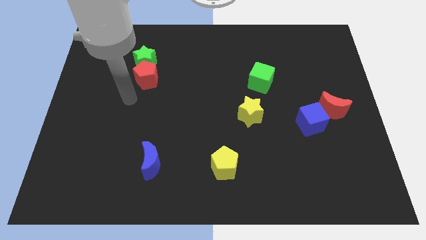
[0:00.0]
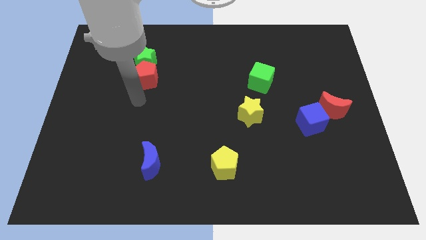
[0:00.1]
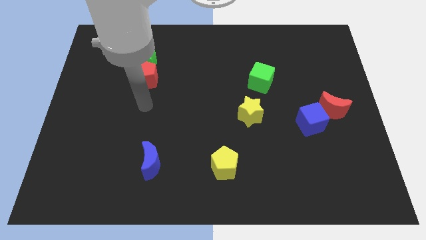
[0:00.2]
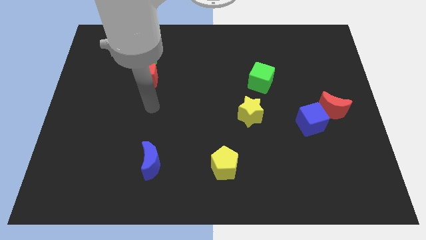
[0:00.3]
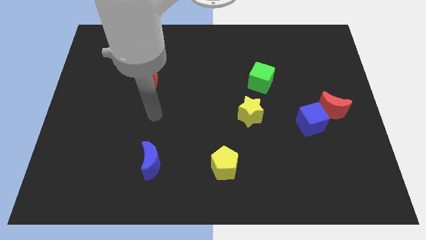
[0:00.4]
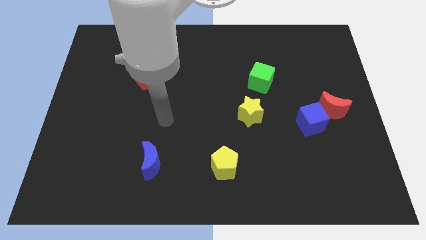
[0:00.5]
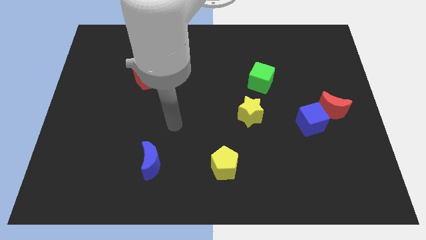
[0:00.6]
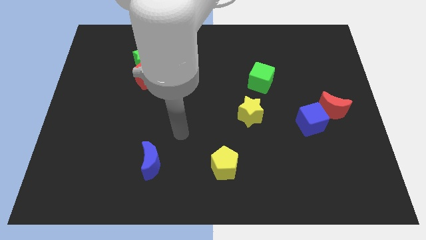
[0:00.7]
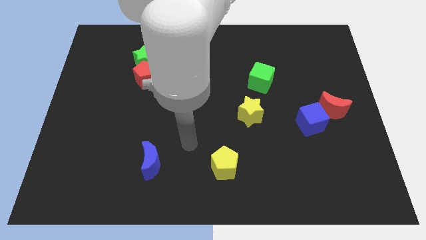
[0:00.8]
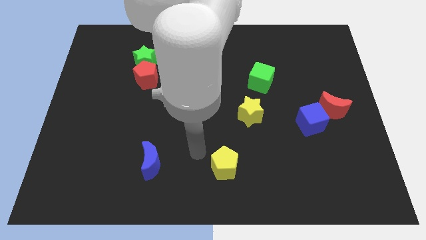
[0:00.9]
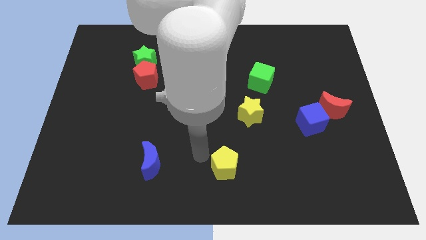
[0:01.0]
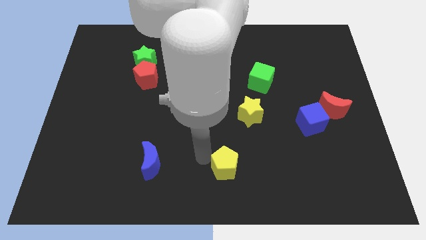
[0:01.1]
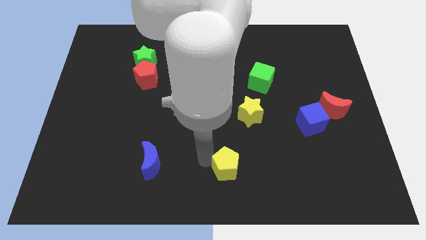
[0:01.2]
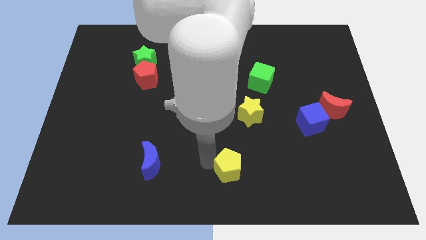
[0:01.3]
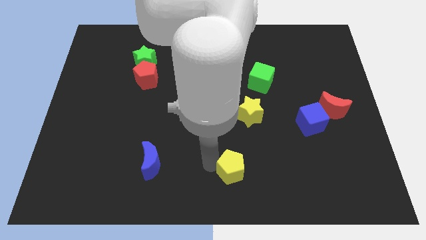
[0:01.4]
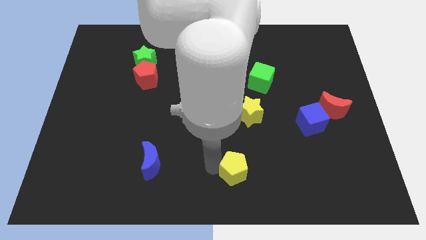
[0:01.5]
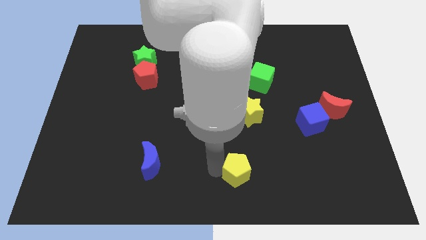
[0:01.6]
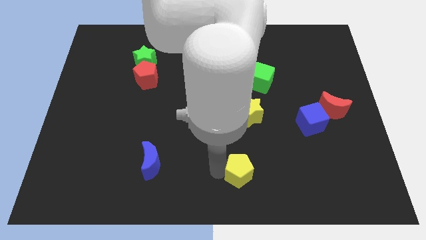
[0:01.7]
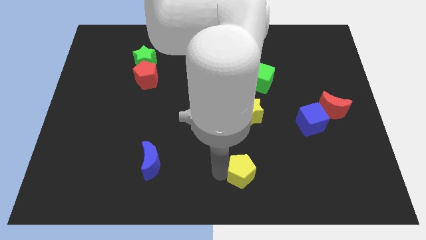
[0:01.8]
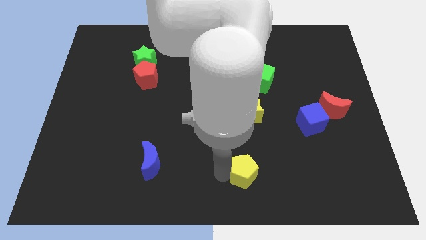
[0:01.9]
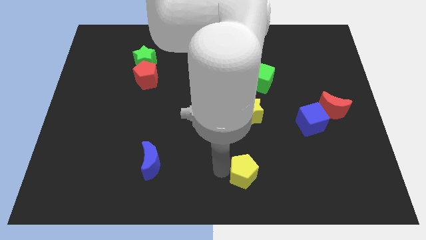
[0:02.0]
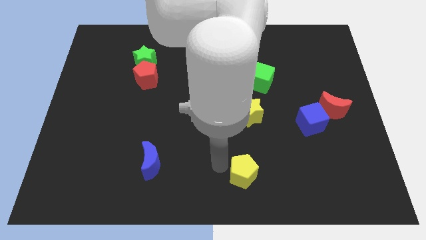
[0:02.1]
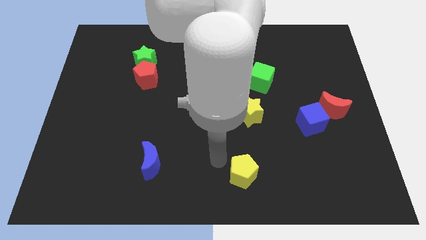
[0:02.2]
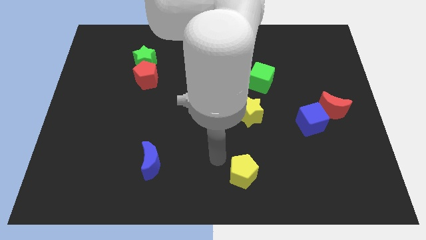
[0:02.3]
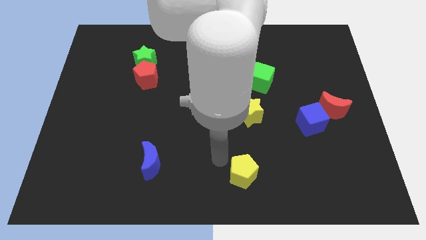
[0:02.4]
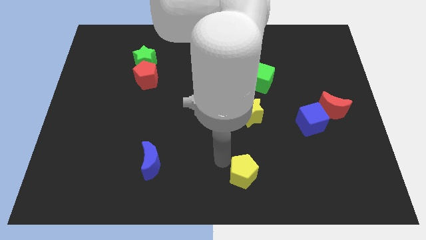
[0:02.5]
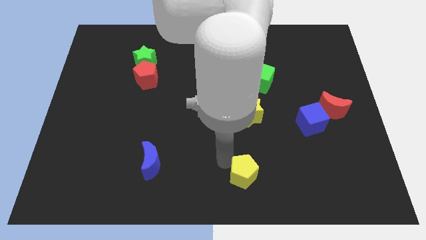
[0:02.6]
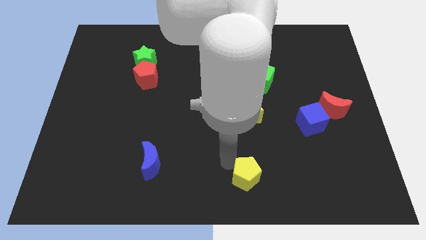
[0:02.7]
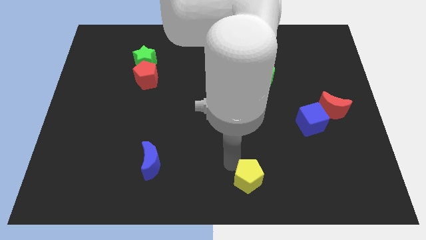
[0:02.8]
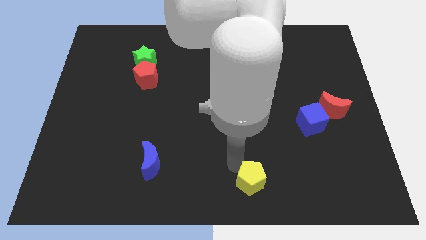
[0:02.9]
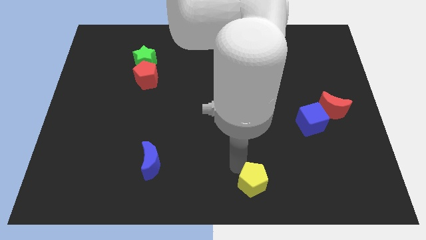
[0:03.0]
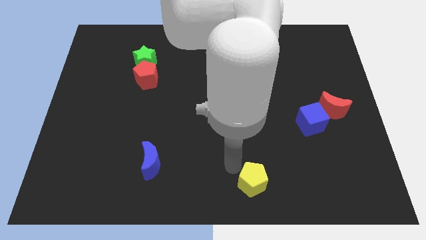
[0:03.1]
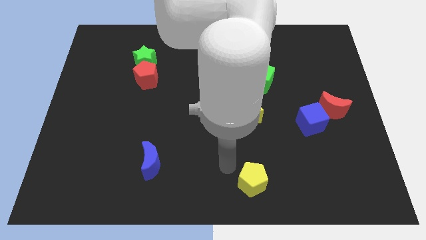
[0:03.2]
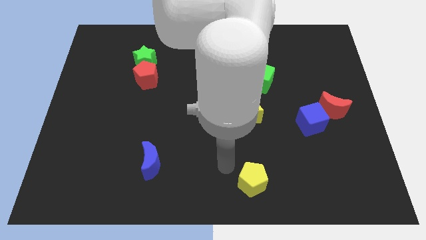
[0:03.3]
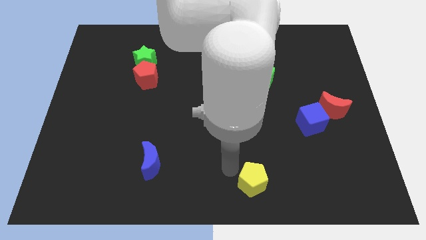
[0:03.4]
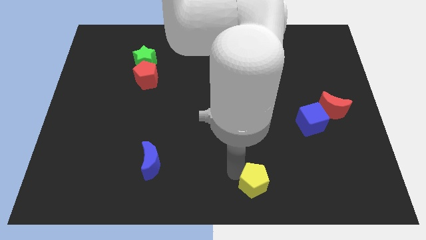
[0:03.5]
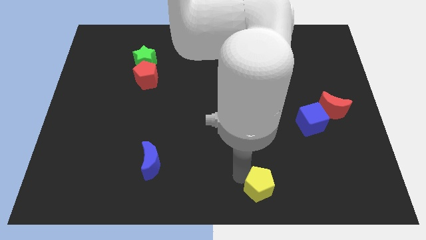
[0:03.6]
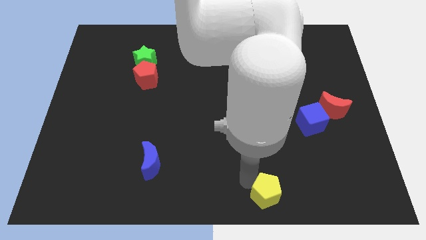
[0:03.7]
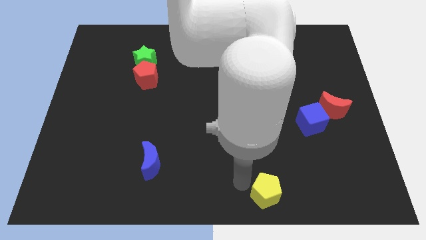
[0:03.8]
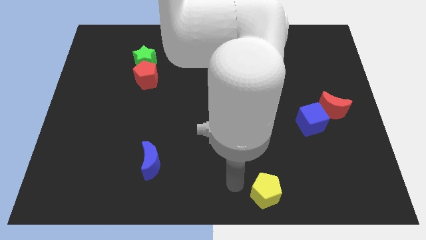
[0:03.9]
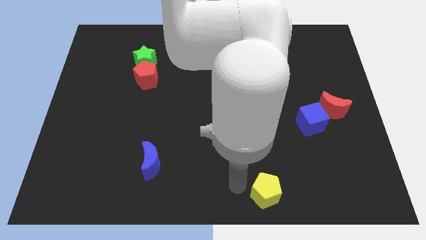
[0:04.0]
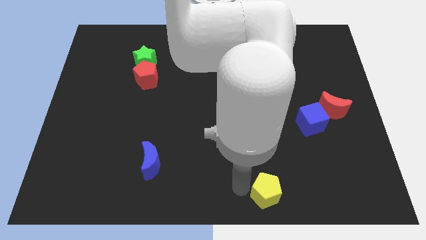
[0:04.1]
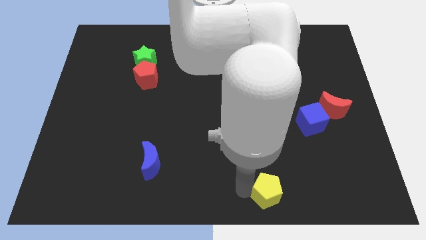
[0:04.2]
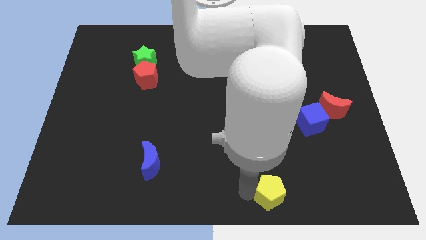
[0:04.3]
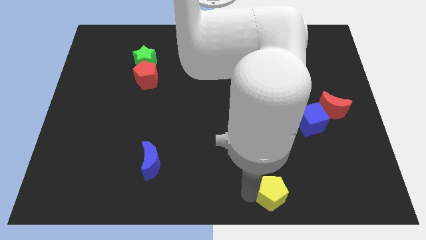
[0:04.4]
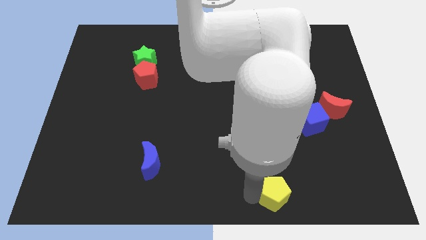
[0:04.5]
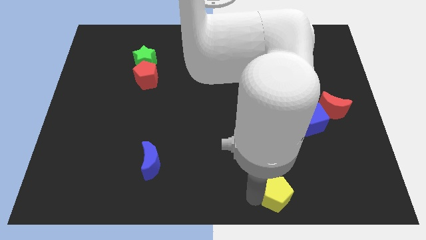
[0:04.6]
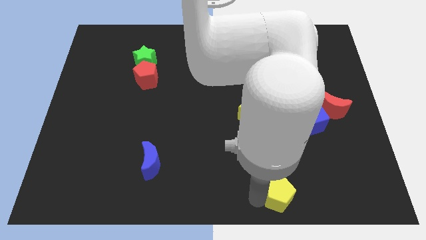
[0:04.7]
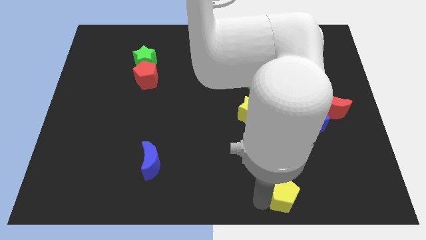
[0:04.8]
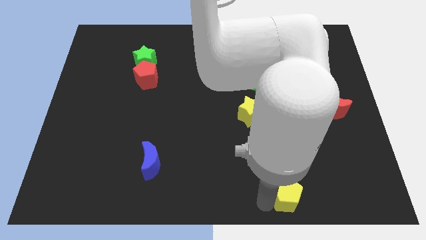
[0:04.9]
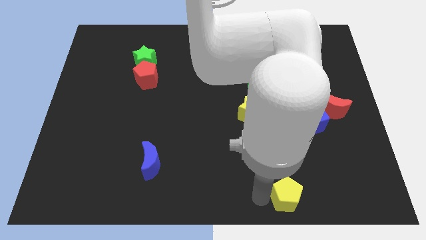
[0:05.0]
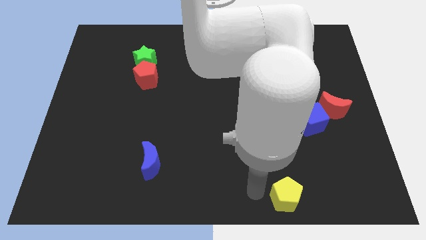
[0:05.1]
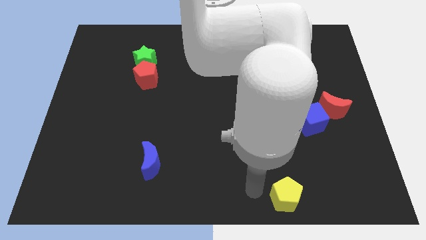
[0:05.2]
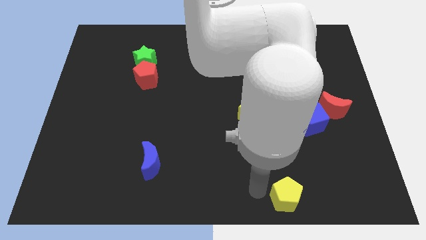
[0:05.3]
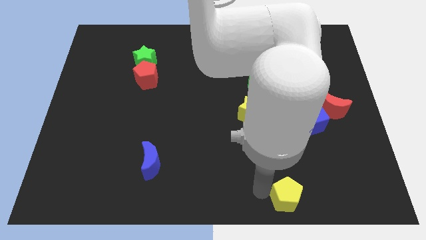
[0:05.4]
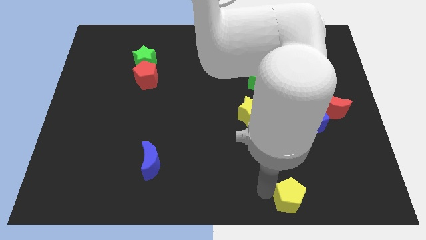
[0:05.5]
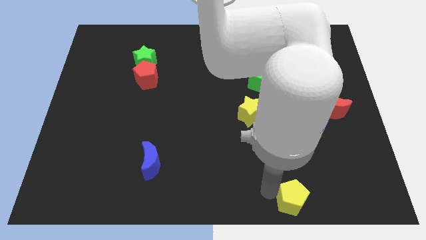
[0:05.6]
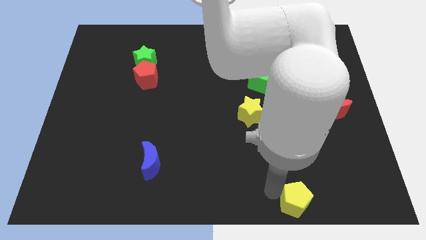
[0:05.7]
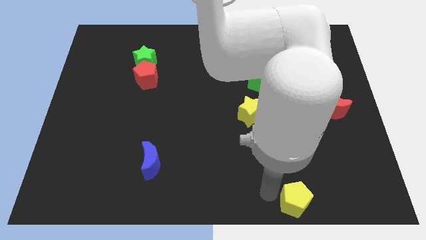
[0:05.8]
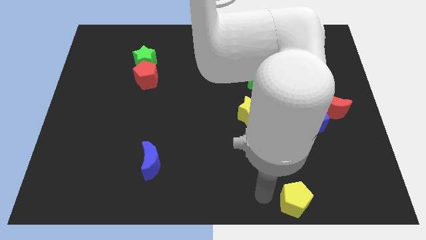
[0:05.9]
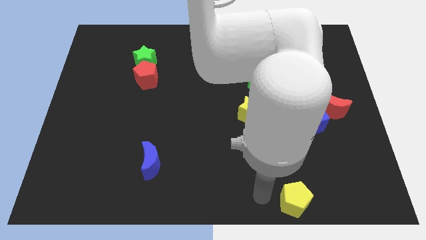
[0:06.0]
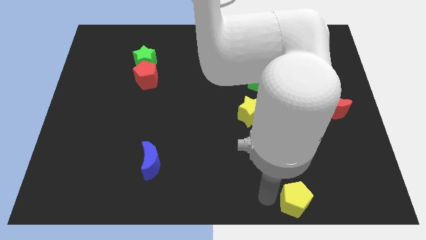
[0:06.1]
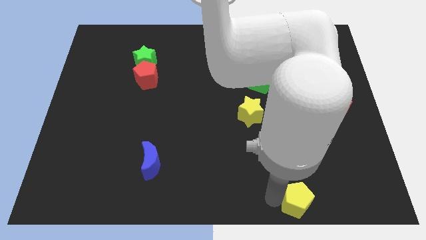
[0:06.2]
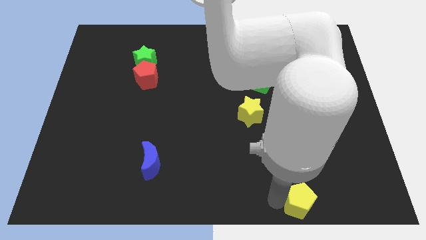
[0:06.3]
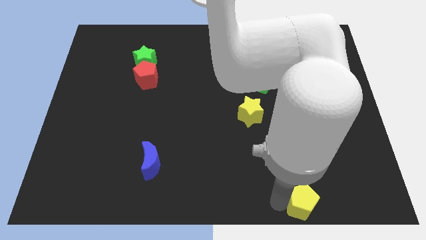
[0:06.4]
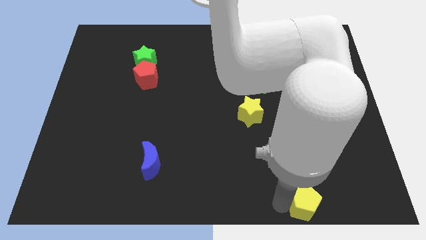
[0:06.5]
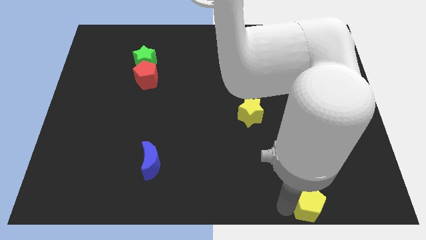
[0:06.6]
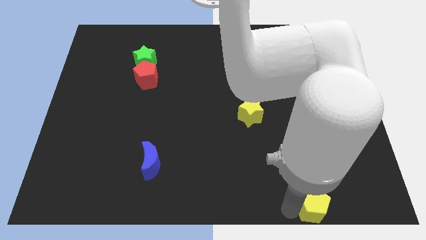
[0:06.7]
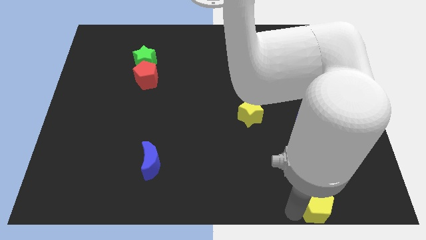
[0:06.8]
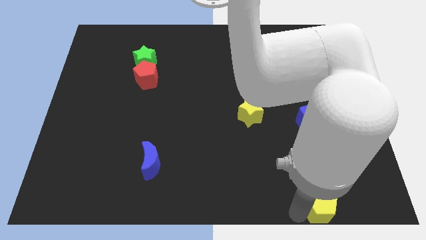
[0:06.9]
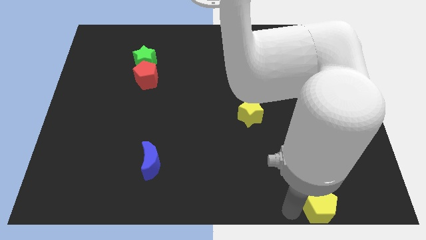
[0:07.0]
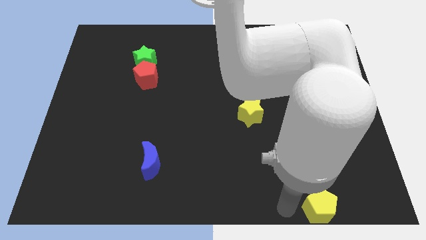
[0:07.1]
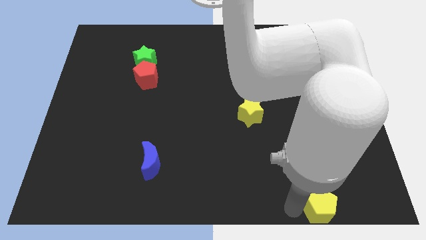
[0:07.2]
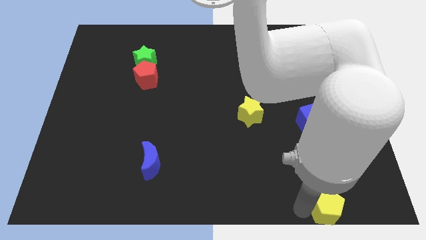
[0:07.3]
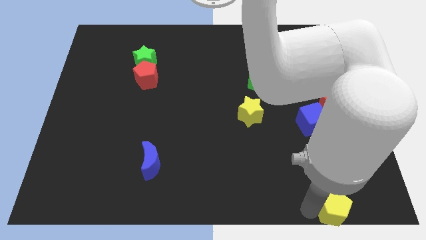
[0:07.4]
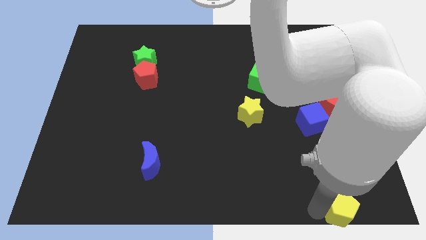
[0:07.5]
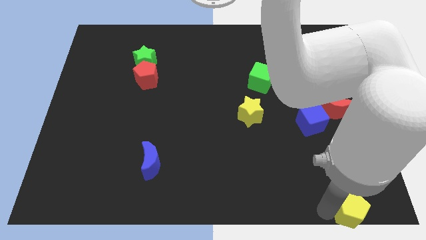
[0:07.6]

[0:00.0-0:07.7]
move the yellow pentagon to the bottom right of the board
